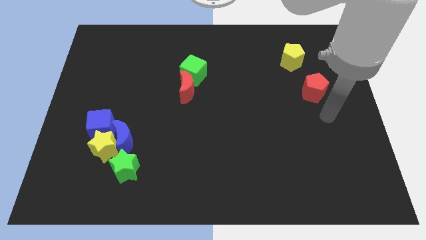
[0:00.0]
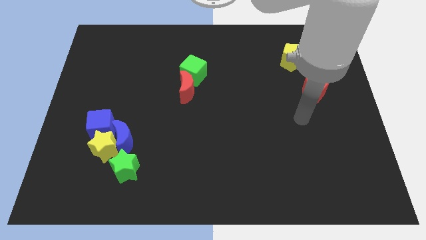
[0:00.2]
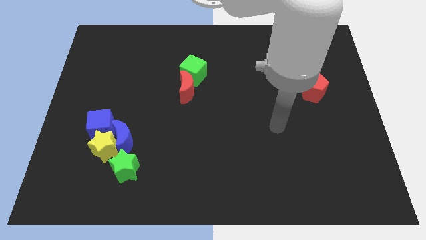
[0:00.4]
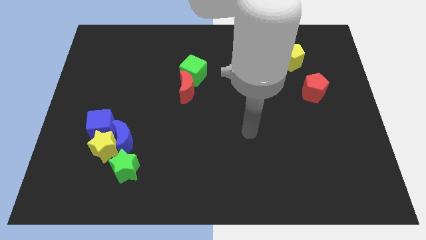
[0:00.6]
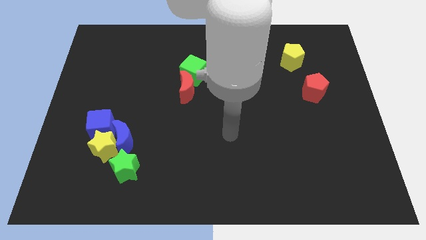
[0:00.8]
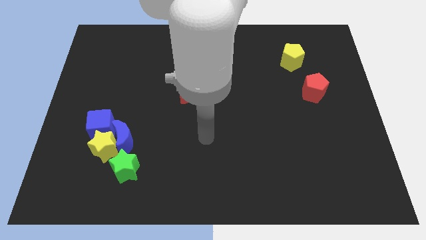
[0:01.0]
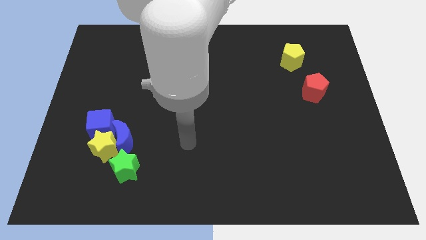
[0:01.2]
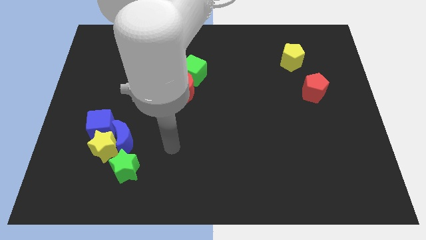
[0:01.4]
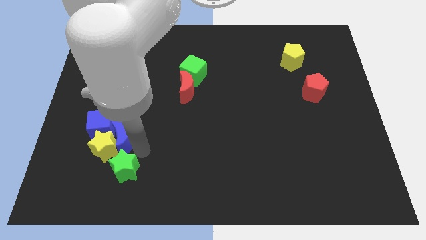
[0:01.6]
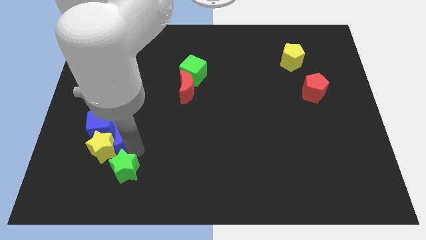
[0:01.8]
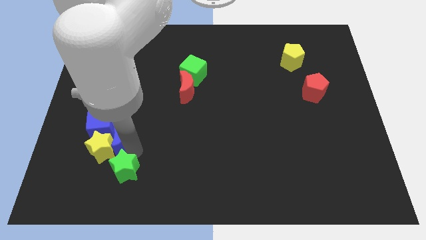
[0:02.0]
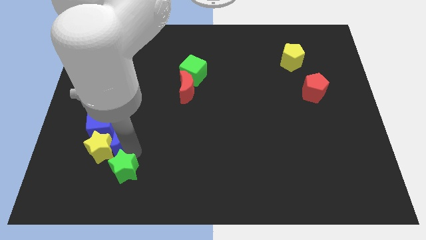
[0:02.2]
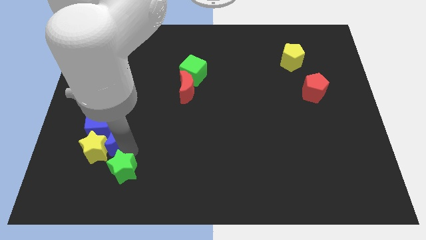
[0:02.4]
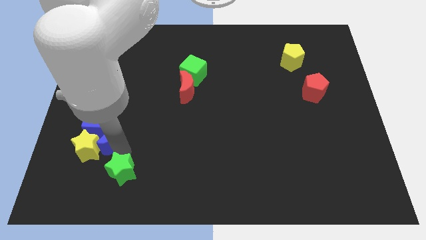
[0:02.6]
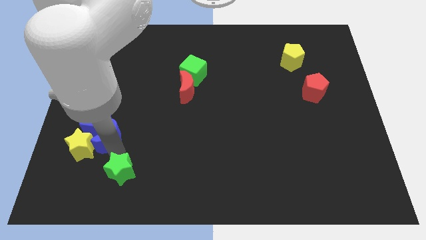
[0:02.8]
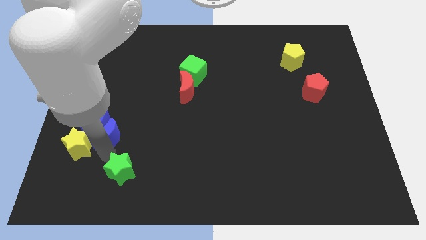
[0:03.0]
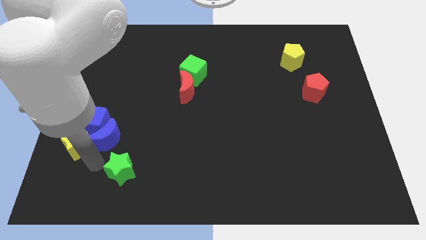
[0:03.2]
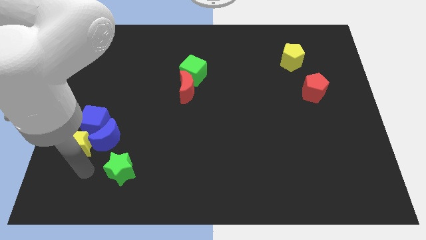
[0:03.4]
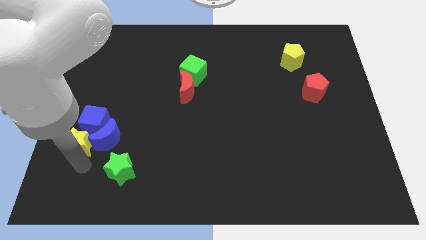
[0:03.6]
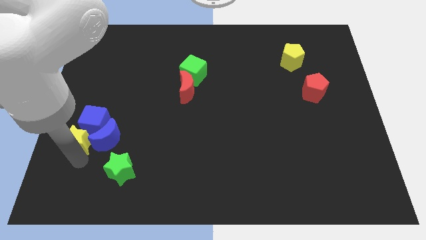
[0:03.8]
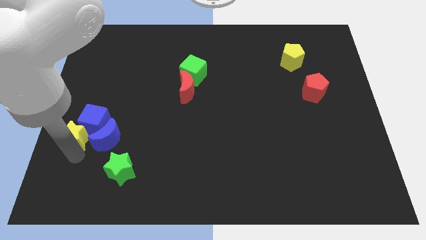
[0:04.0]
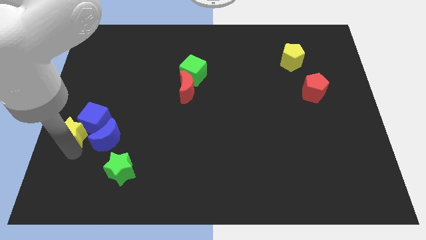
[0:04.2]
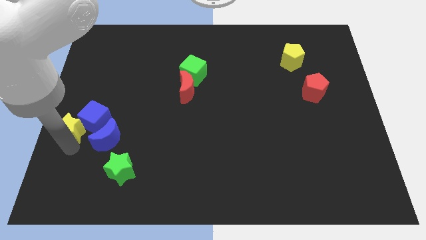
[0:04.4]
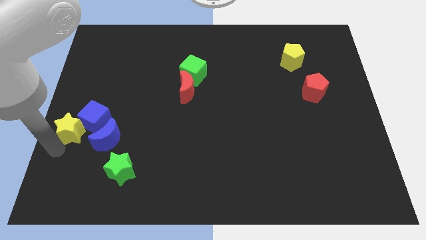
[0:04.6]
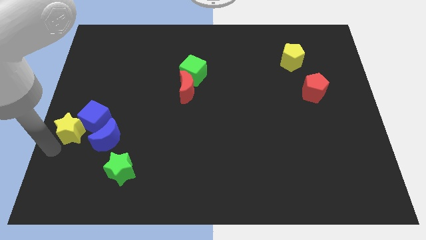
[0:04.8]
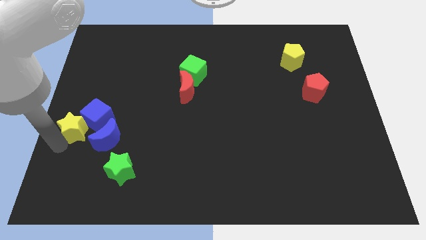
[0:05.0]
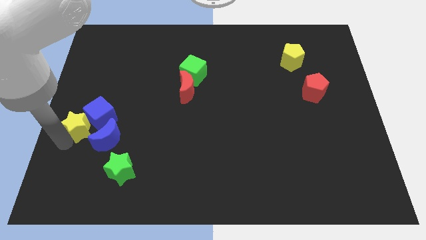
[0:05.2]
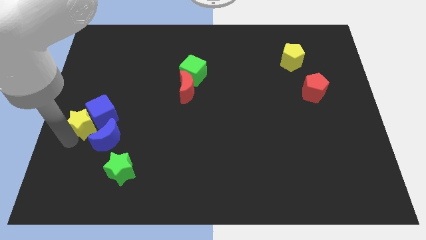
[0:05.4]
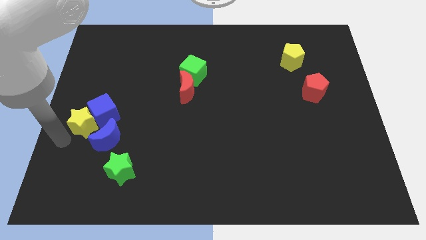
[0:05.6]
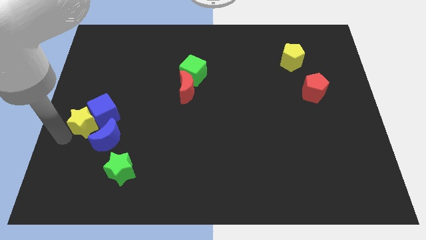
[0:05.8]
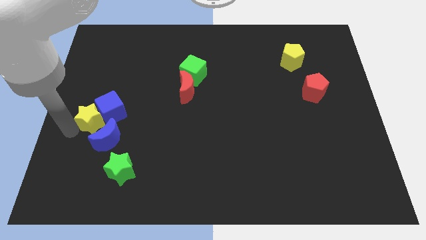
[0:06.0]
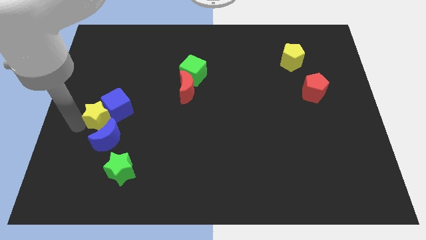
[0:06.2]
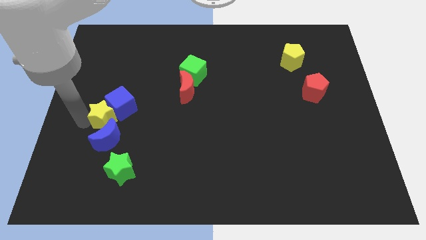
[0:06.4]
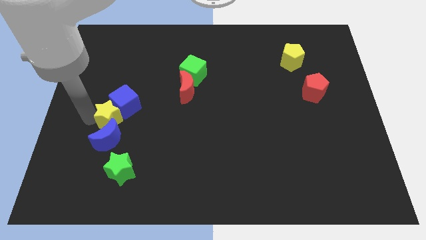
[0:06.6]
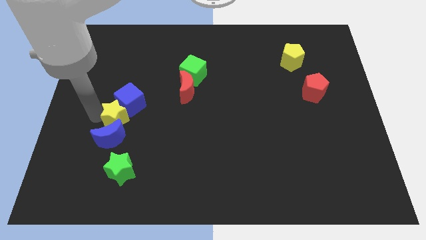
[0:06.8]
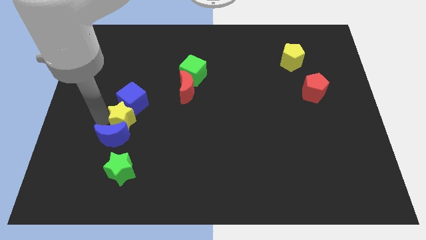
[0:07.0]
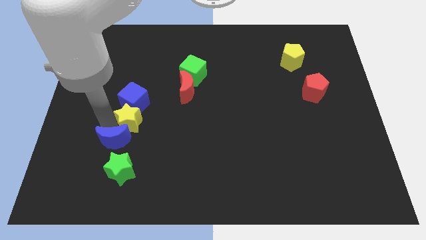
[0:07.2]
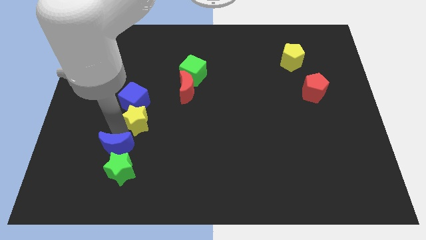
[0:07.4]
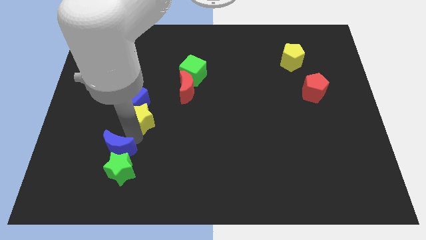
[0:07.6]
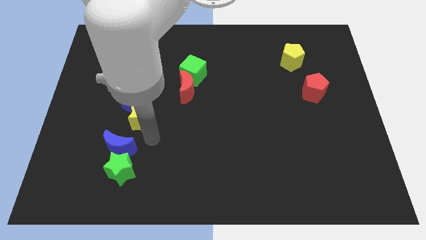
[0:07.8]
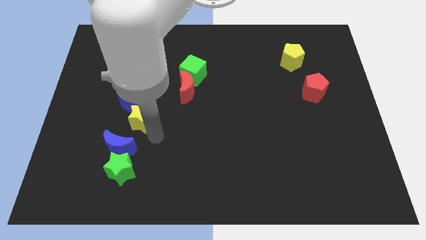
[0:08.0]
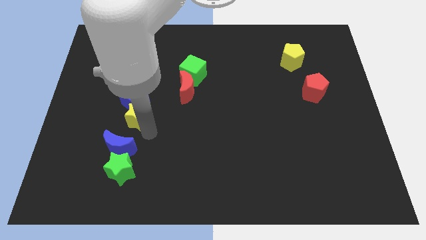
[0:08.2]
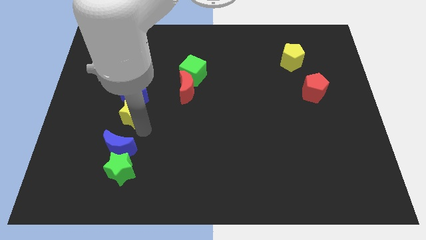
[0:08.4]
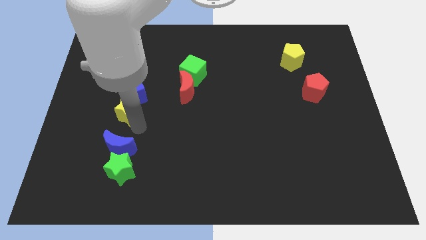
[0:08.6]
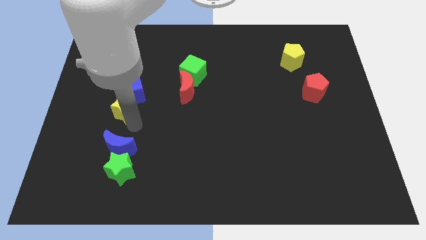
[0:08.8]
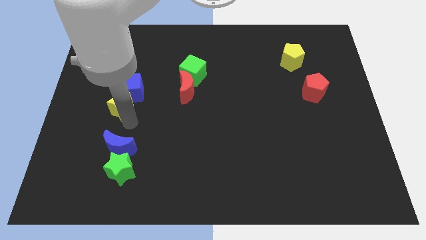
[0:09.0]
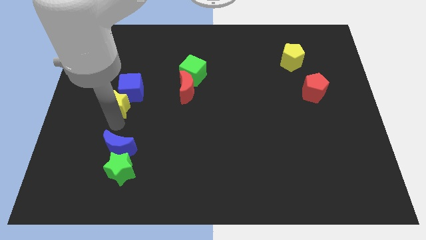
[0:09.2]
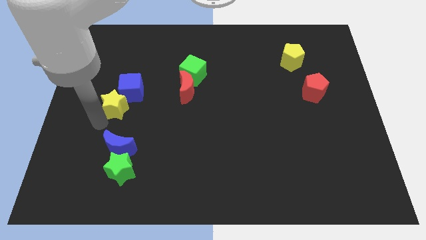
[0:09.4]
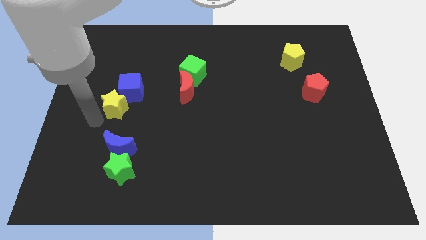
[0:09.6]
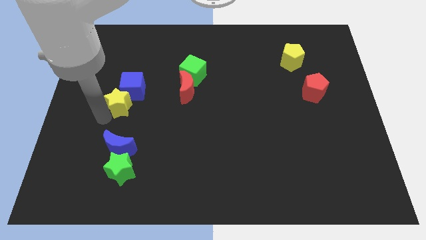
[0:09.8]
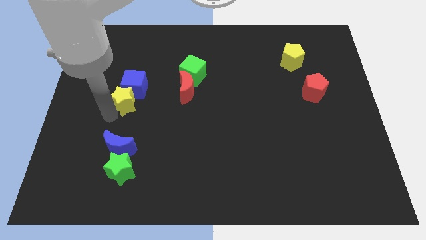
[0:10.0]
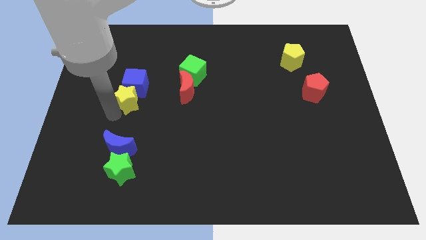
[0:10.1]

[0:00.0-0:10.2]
slide the yellow star just left of the red moon

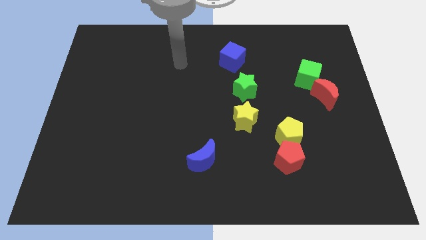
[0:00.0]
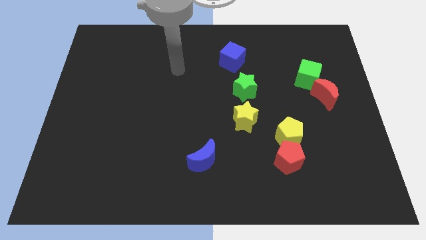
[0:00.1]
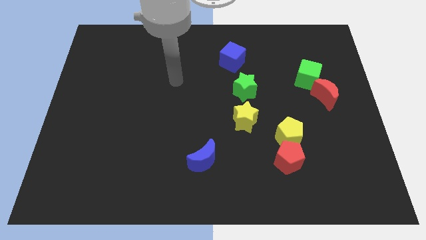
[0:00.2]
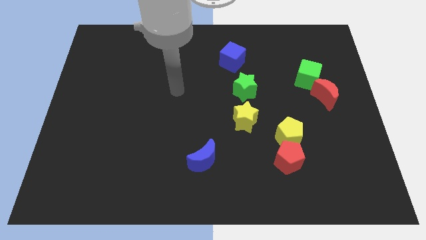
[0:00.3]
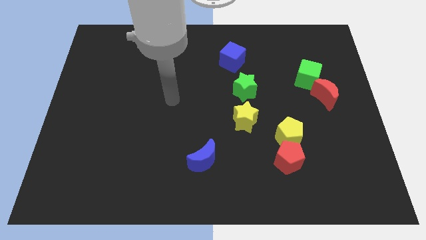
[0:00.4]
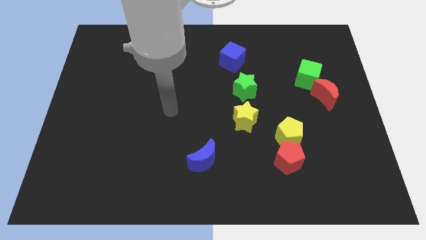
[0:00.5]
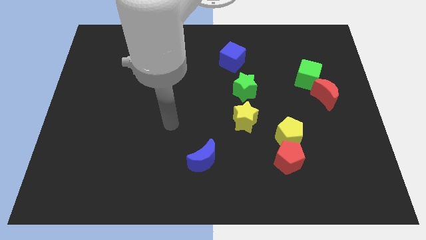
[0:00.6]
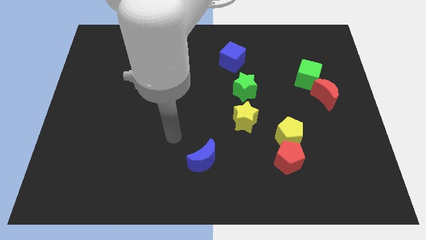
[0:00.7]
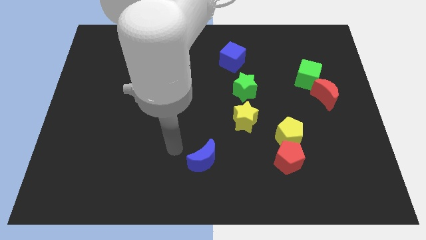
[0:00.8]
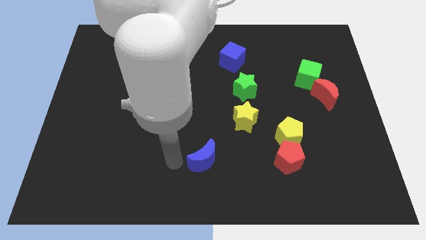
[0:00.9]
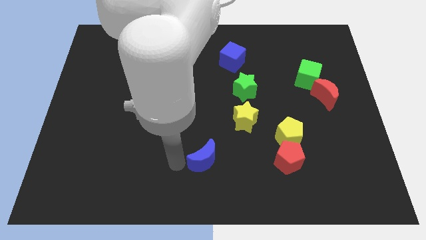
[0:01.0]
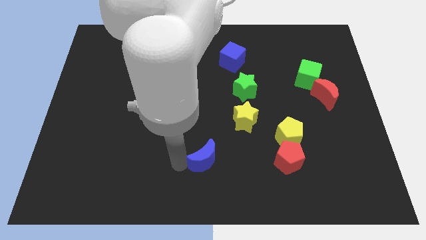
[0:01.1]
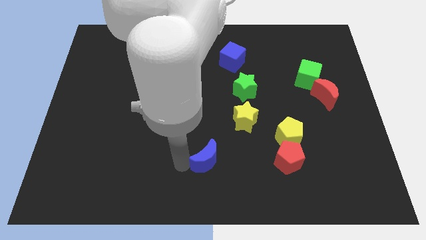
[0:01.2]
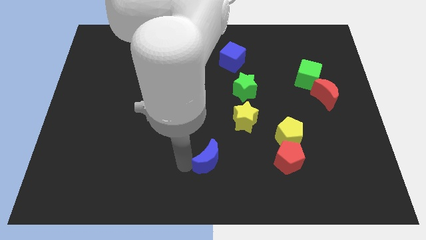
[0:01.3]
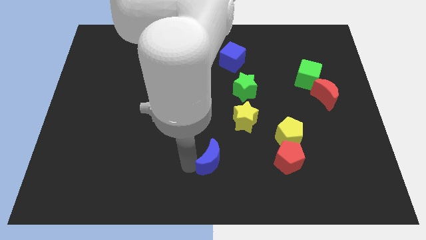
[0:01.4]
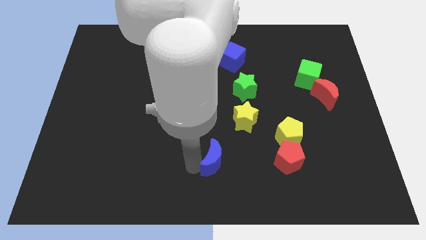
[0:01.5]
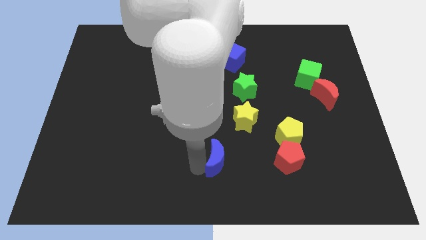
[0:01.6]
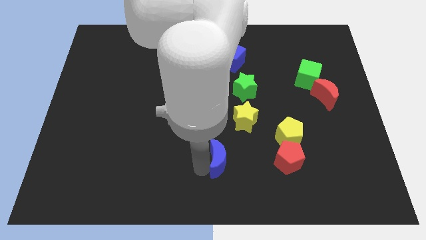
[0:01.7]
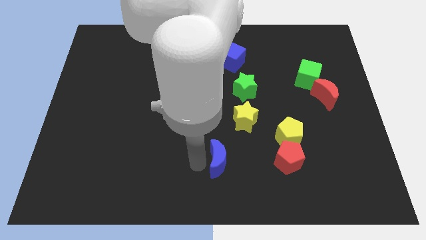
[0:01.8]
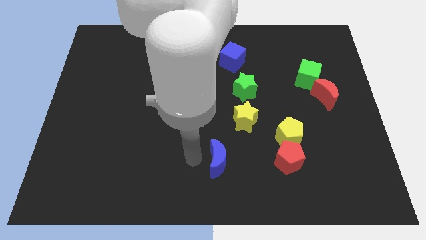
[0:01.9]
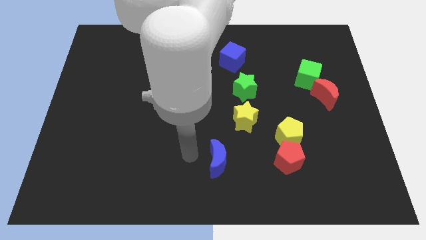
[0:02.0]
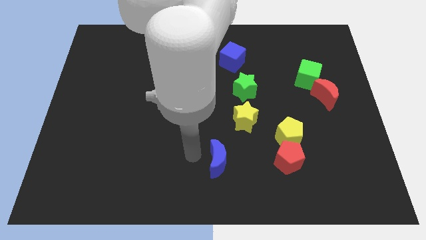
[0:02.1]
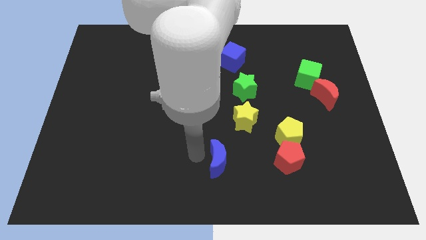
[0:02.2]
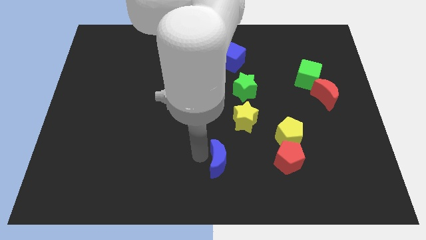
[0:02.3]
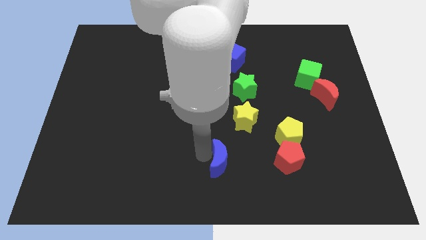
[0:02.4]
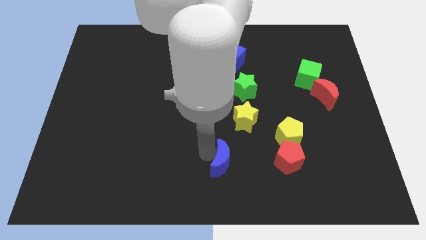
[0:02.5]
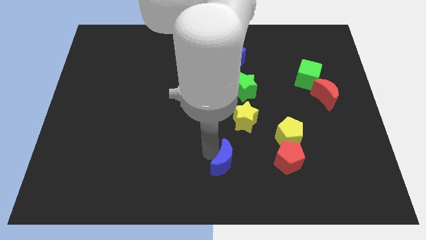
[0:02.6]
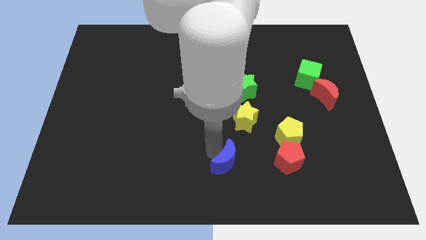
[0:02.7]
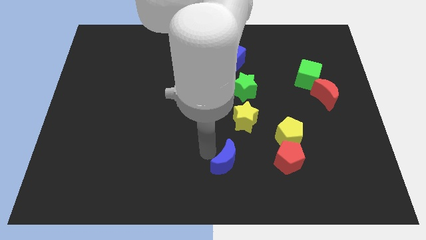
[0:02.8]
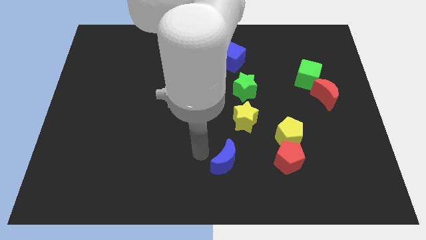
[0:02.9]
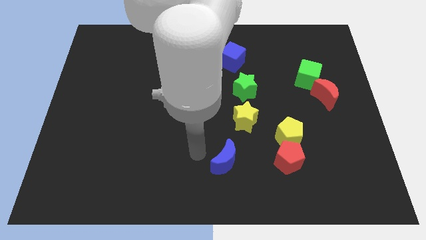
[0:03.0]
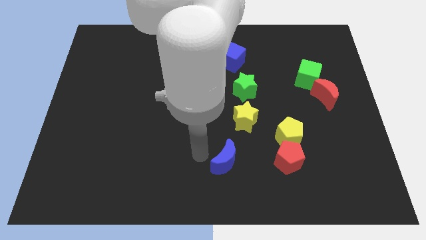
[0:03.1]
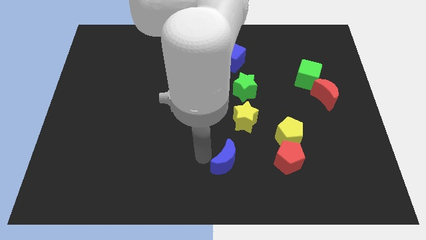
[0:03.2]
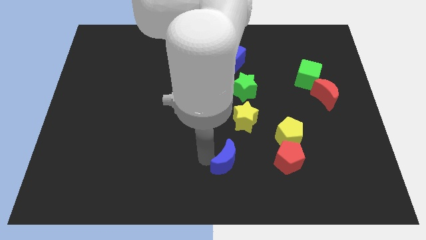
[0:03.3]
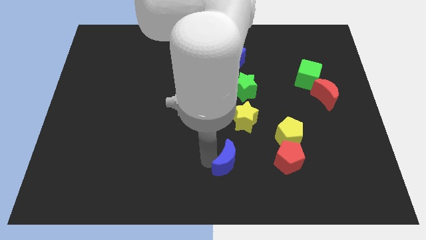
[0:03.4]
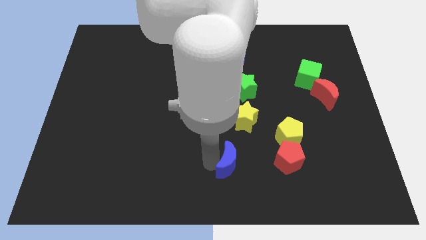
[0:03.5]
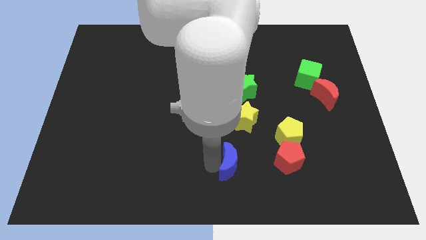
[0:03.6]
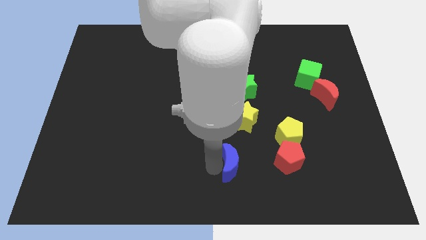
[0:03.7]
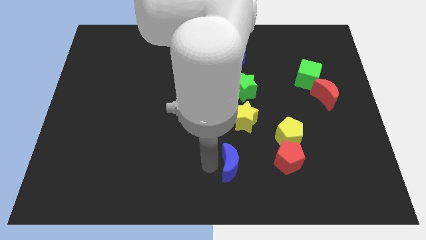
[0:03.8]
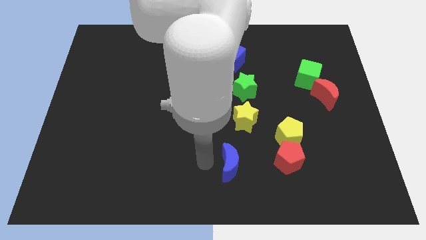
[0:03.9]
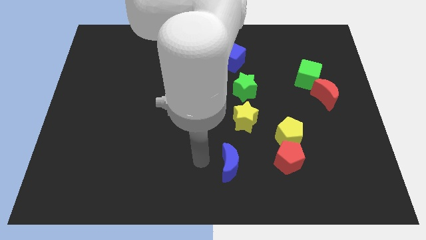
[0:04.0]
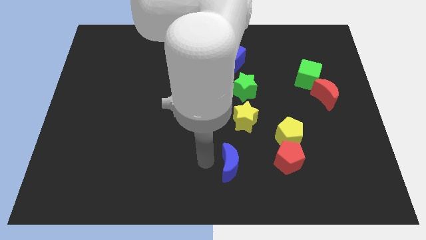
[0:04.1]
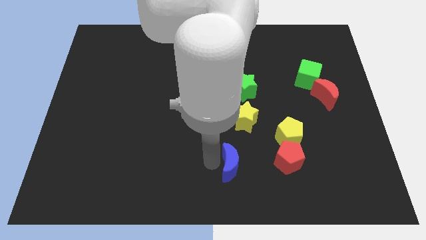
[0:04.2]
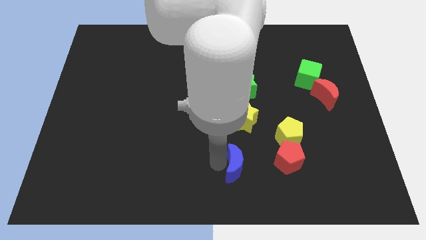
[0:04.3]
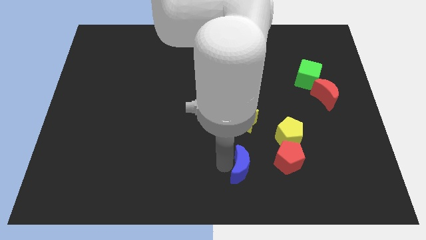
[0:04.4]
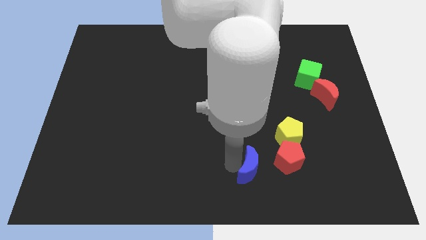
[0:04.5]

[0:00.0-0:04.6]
slide the blue moon to the bottom left of the red pentagon
